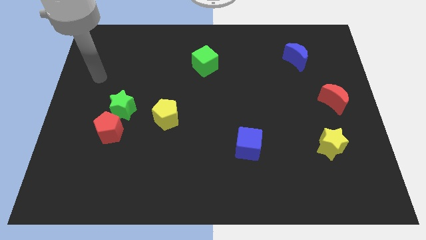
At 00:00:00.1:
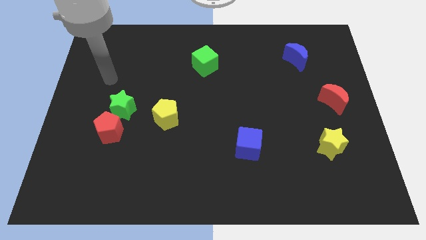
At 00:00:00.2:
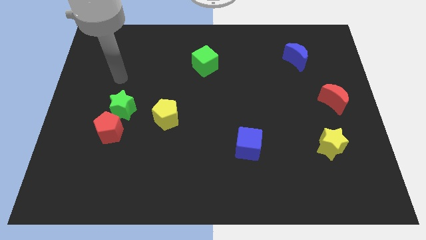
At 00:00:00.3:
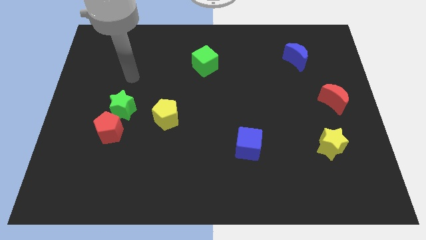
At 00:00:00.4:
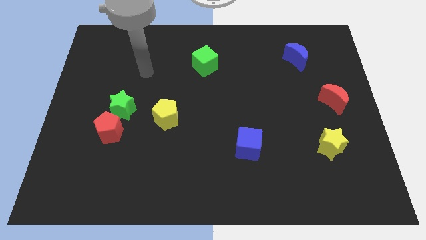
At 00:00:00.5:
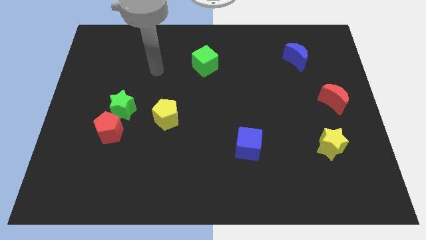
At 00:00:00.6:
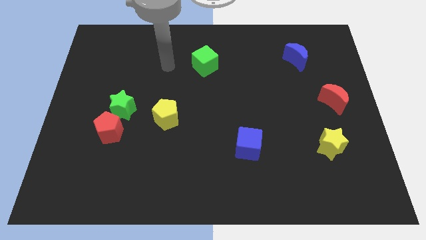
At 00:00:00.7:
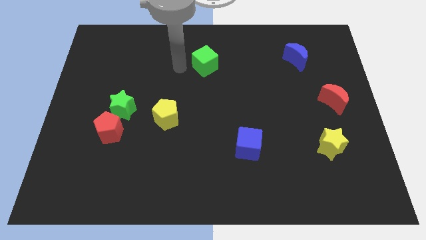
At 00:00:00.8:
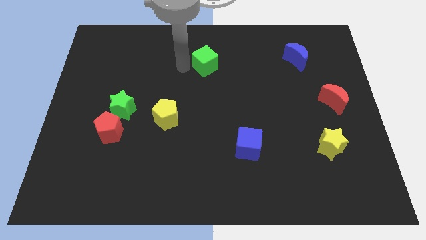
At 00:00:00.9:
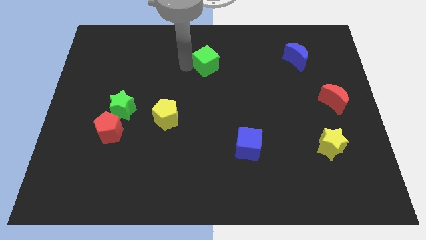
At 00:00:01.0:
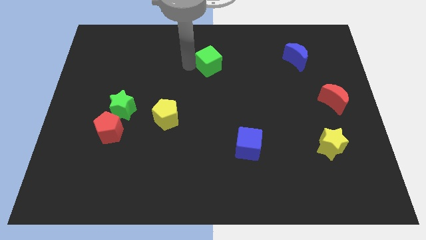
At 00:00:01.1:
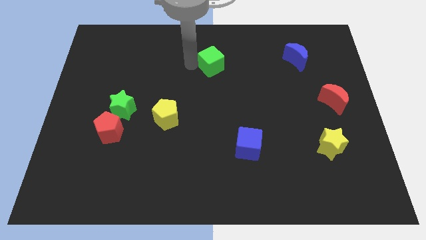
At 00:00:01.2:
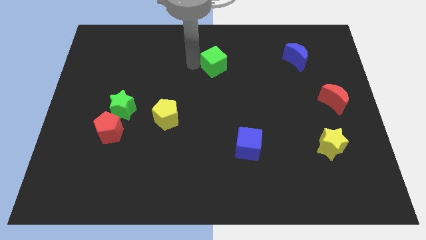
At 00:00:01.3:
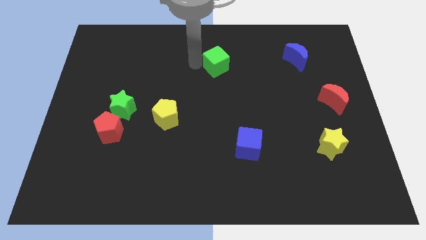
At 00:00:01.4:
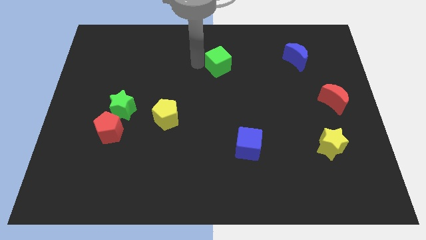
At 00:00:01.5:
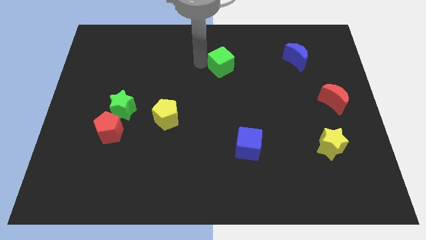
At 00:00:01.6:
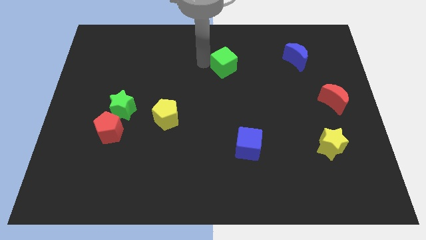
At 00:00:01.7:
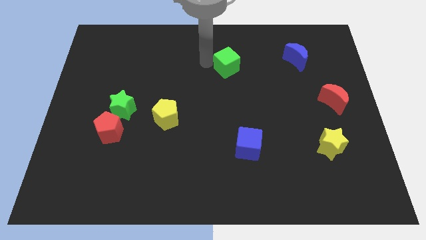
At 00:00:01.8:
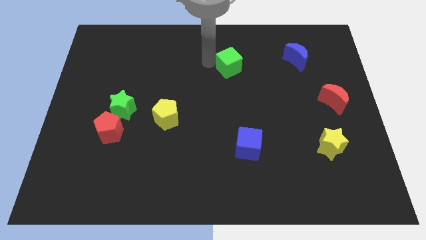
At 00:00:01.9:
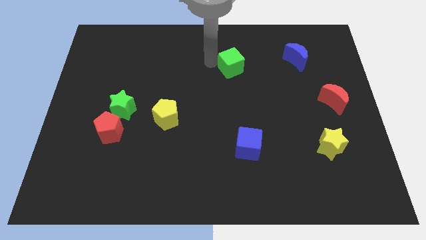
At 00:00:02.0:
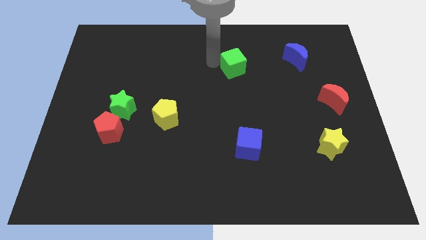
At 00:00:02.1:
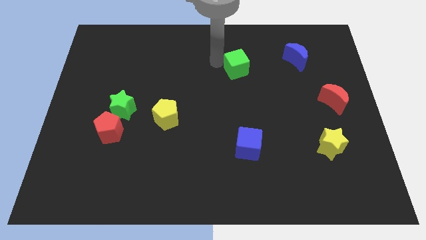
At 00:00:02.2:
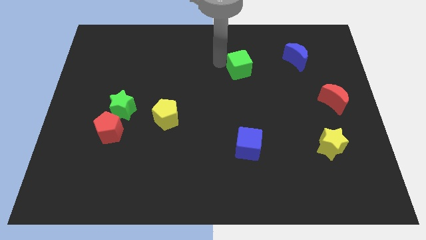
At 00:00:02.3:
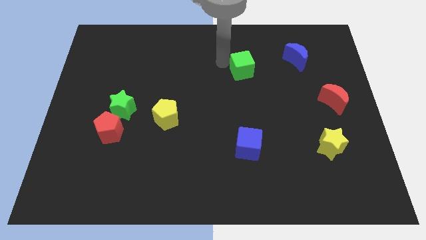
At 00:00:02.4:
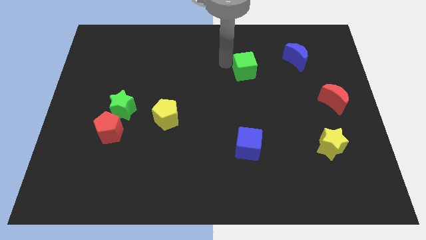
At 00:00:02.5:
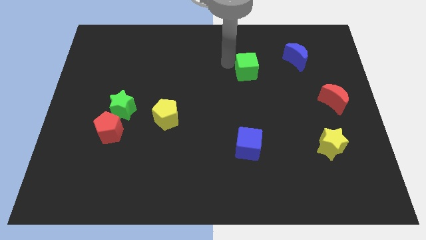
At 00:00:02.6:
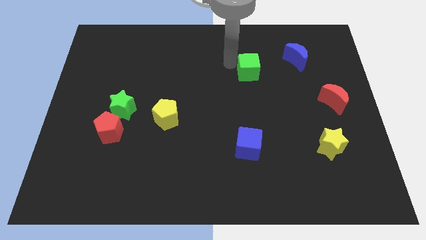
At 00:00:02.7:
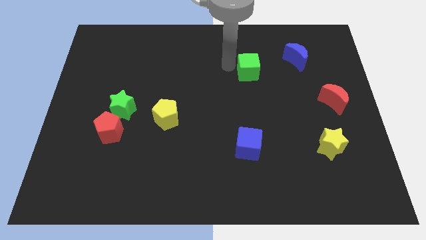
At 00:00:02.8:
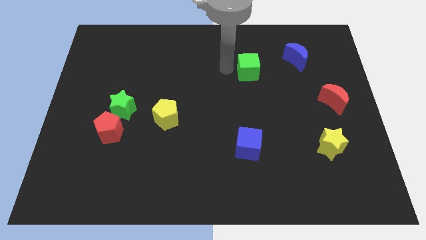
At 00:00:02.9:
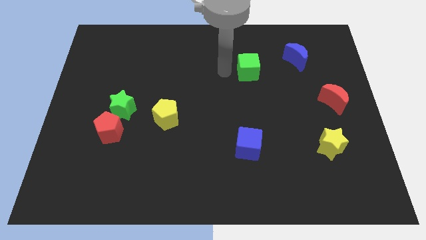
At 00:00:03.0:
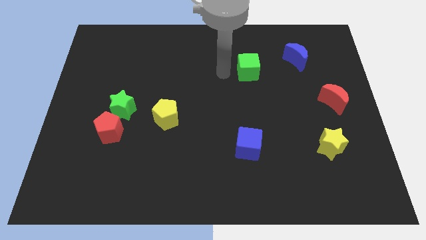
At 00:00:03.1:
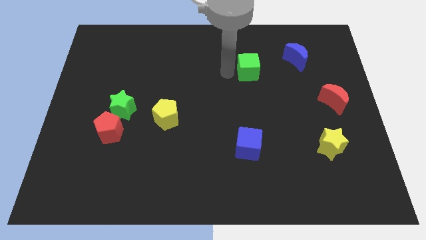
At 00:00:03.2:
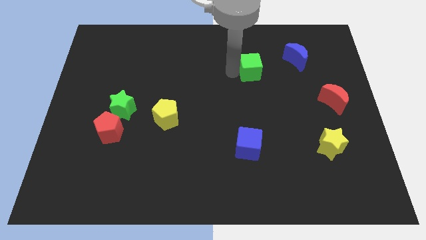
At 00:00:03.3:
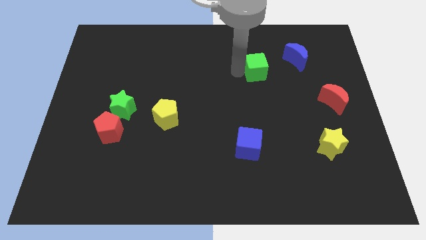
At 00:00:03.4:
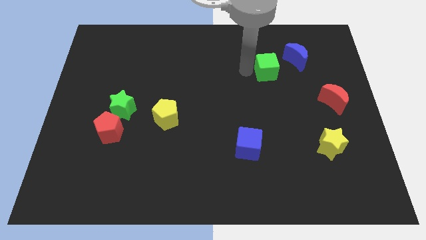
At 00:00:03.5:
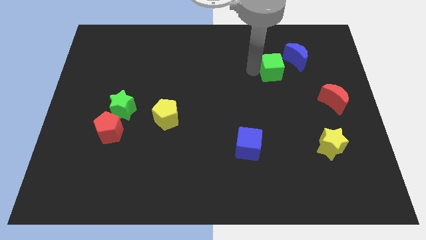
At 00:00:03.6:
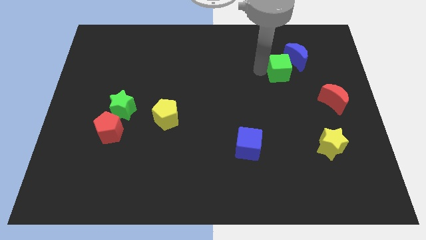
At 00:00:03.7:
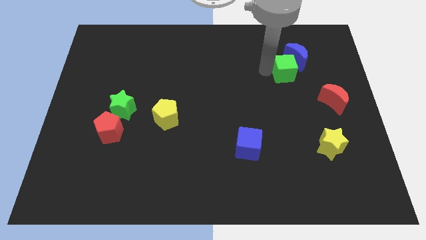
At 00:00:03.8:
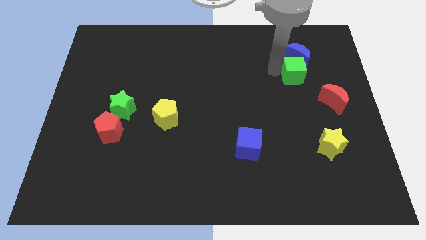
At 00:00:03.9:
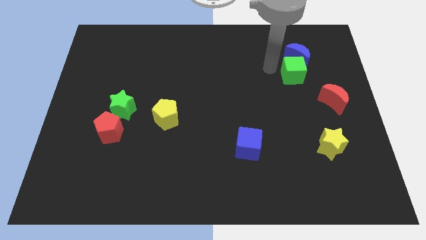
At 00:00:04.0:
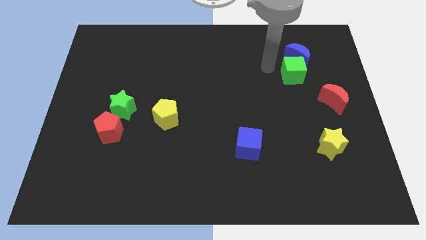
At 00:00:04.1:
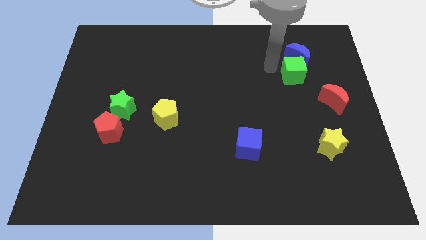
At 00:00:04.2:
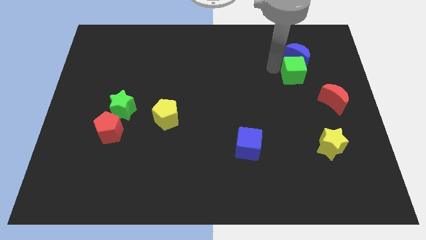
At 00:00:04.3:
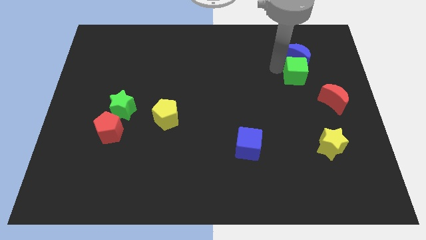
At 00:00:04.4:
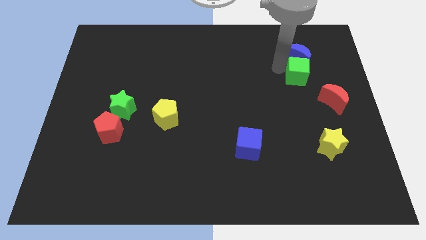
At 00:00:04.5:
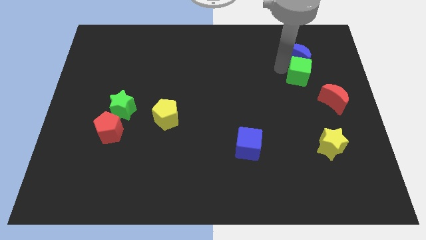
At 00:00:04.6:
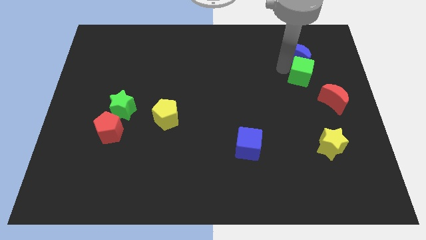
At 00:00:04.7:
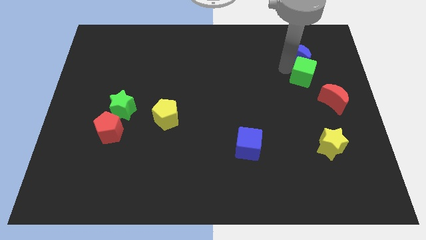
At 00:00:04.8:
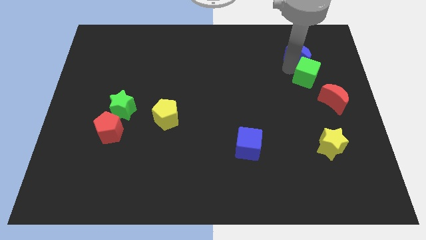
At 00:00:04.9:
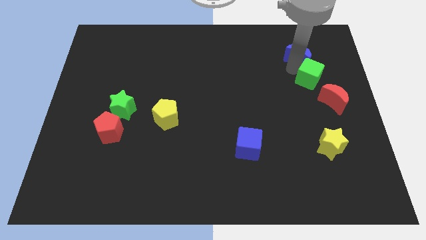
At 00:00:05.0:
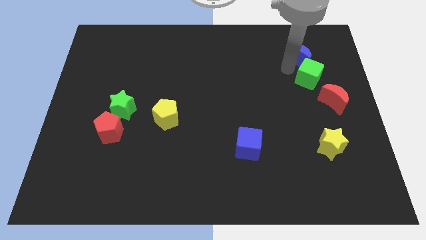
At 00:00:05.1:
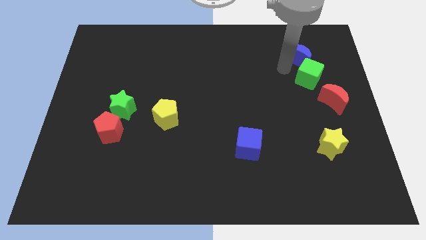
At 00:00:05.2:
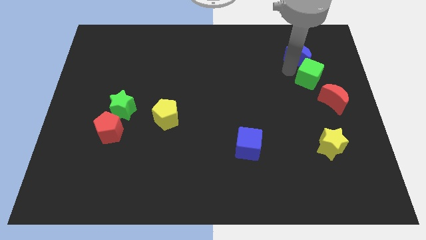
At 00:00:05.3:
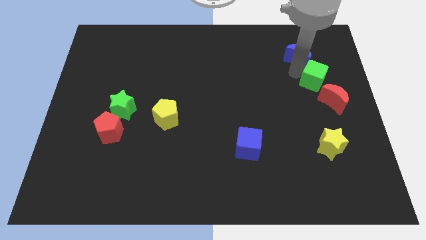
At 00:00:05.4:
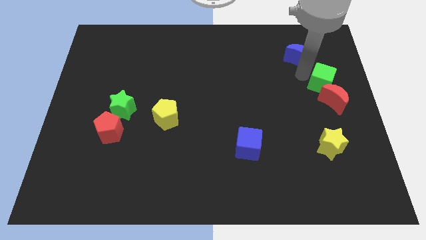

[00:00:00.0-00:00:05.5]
slide the green cube to the right side of the board
